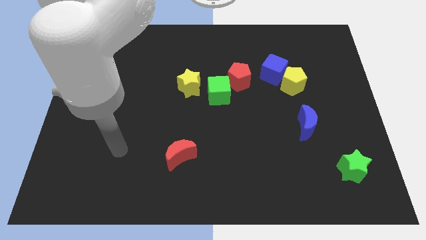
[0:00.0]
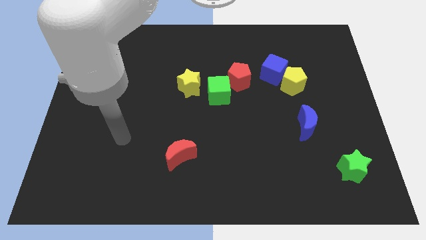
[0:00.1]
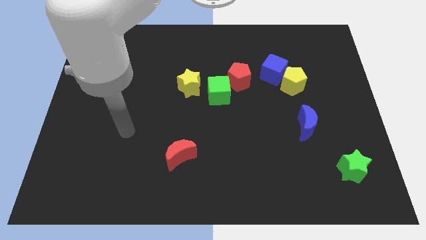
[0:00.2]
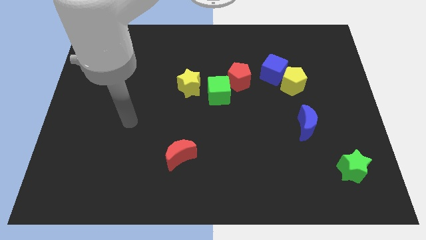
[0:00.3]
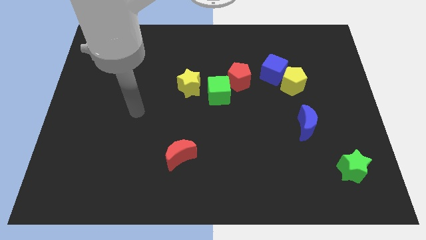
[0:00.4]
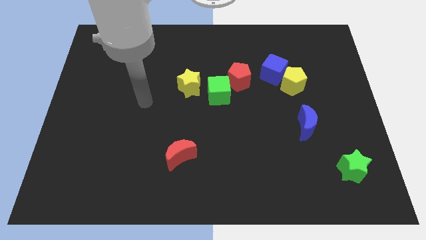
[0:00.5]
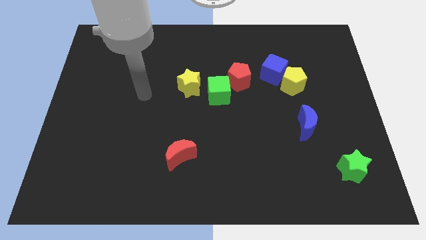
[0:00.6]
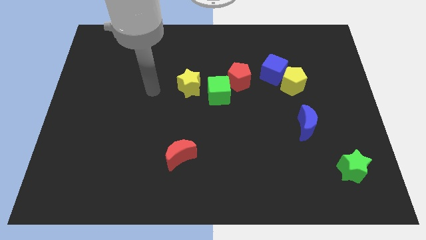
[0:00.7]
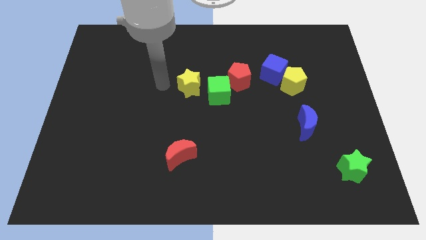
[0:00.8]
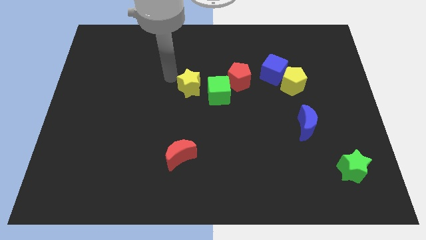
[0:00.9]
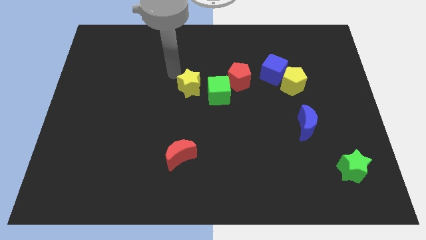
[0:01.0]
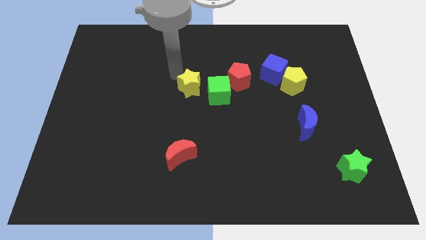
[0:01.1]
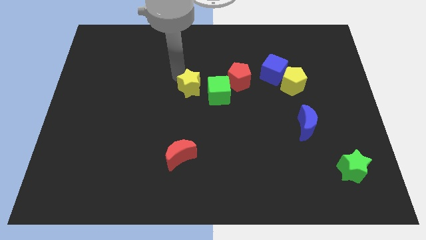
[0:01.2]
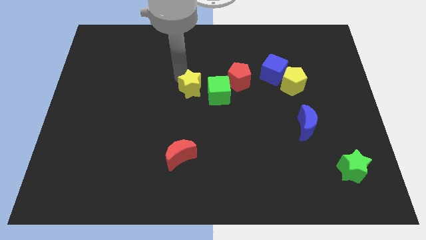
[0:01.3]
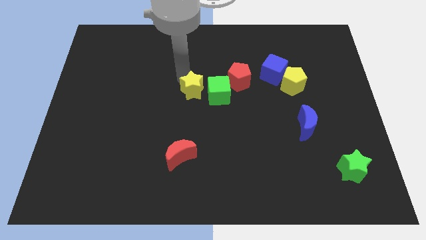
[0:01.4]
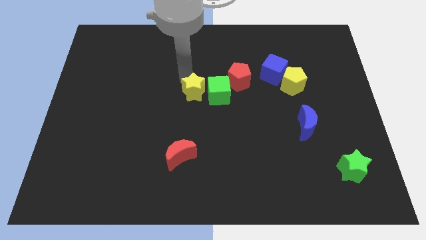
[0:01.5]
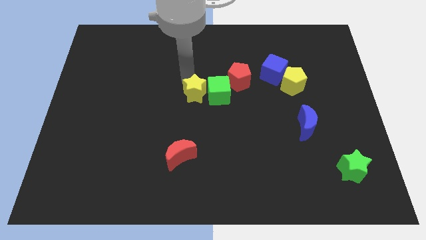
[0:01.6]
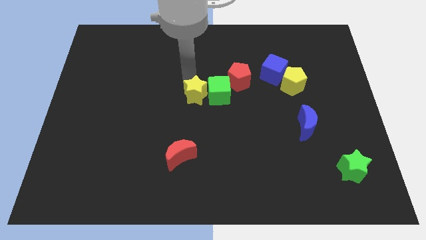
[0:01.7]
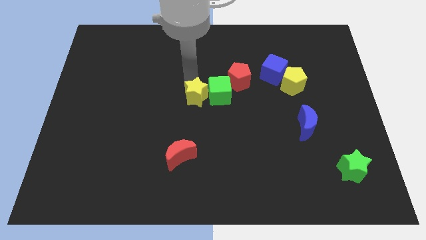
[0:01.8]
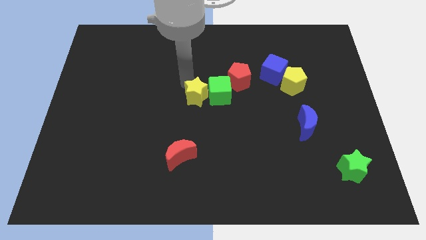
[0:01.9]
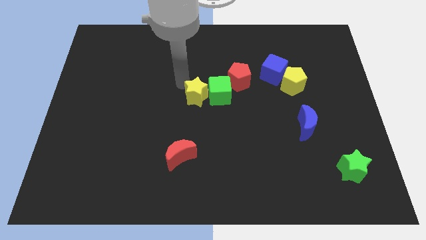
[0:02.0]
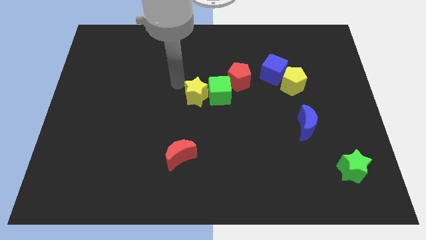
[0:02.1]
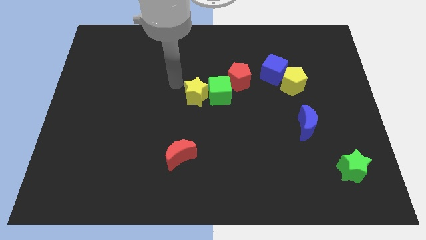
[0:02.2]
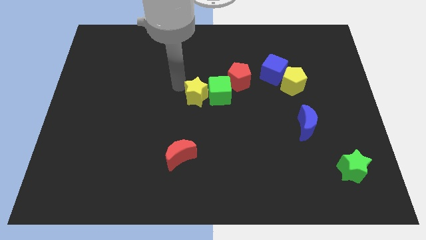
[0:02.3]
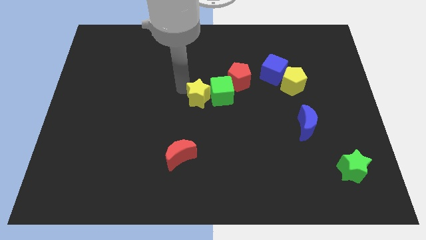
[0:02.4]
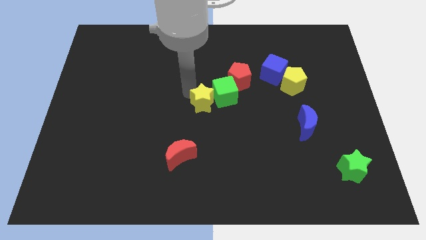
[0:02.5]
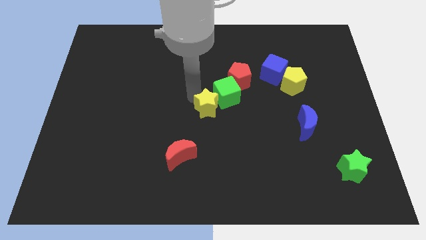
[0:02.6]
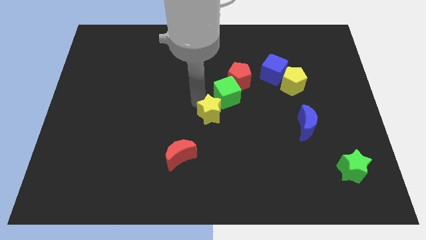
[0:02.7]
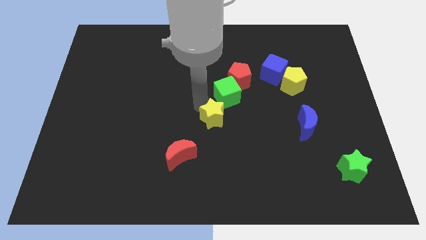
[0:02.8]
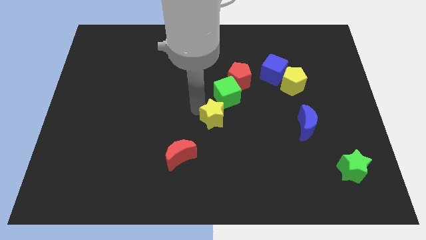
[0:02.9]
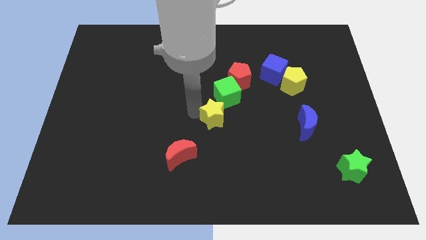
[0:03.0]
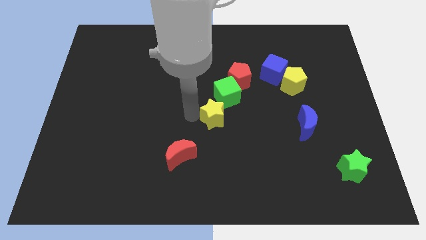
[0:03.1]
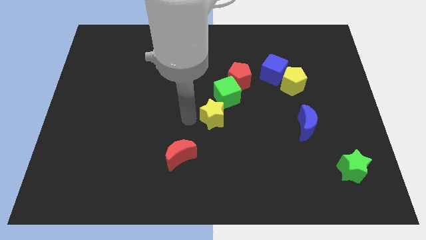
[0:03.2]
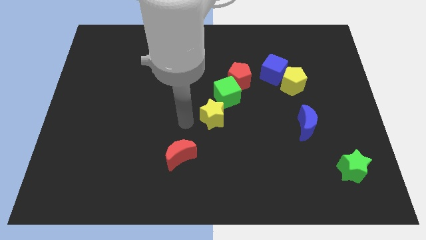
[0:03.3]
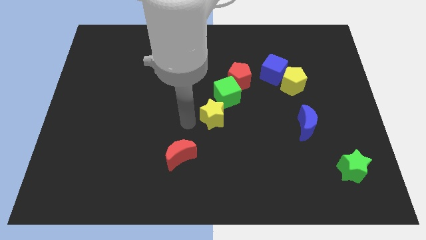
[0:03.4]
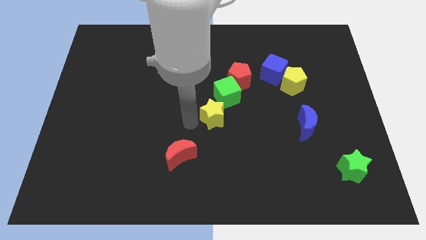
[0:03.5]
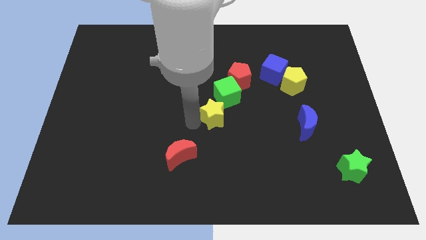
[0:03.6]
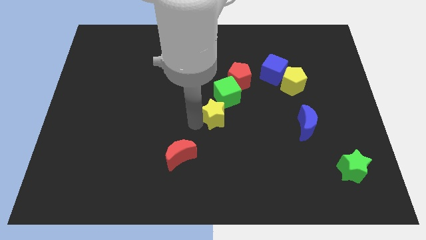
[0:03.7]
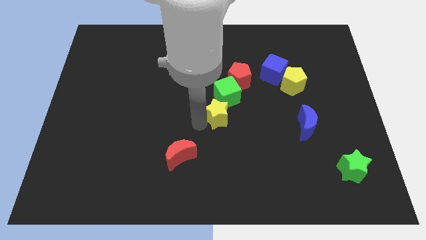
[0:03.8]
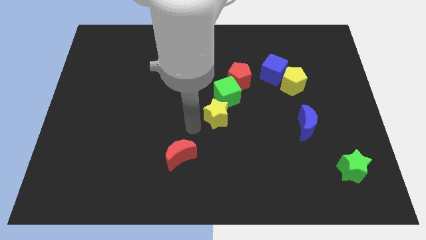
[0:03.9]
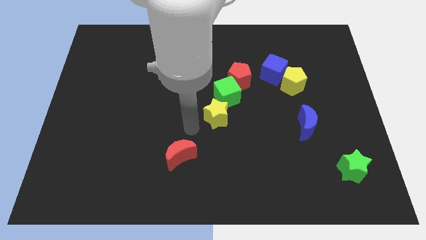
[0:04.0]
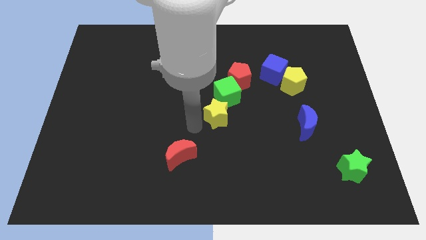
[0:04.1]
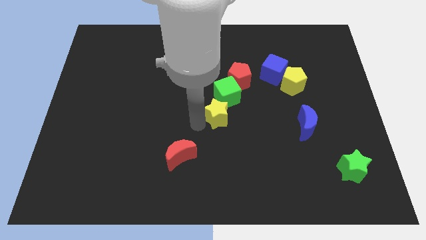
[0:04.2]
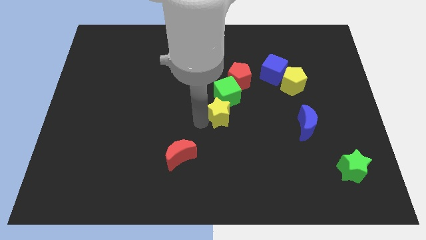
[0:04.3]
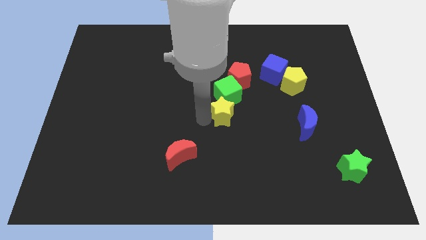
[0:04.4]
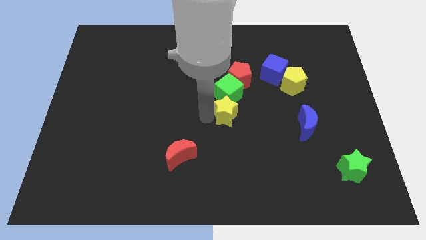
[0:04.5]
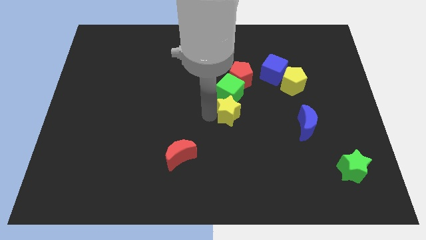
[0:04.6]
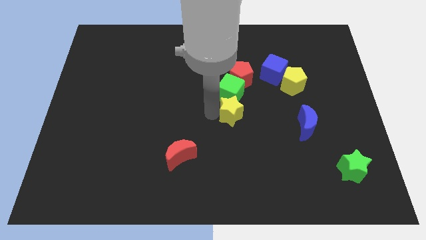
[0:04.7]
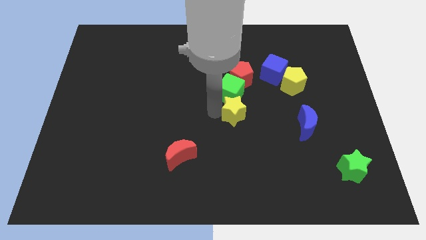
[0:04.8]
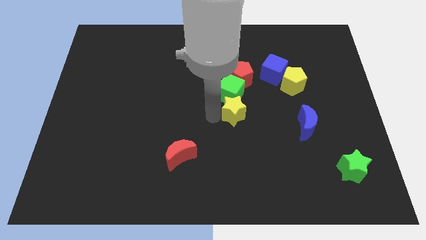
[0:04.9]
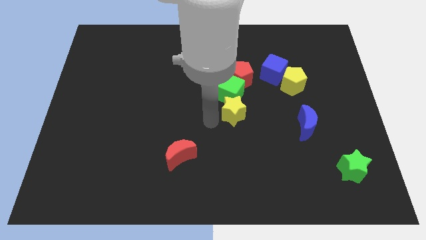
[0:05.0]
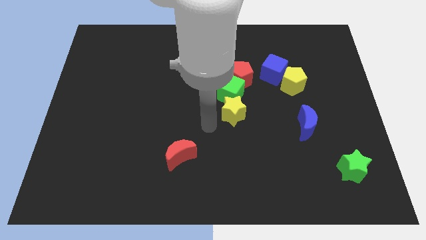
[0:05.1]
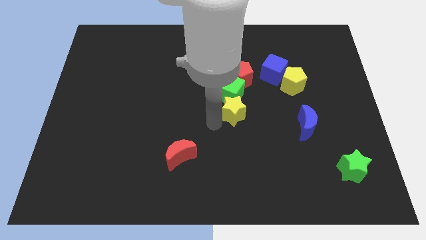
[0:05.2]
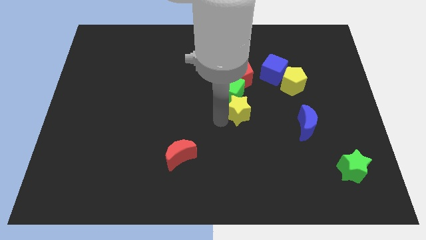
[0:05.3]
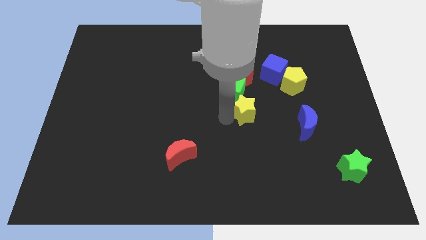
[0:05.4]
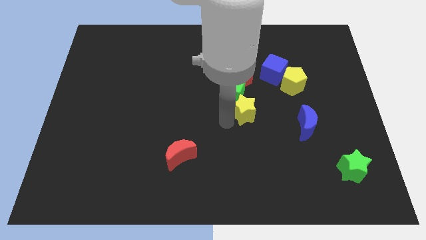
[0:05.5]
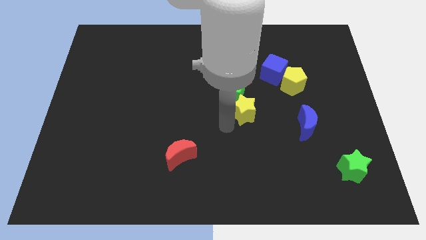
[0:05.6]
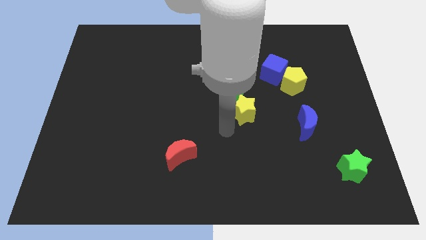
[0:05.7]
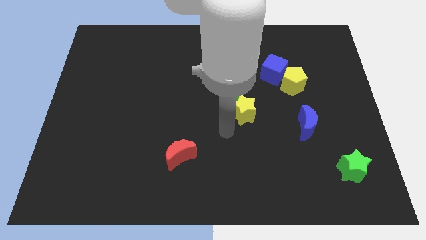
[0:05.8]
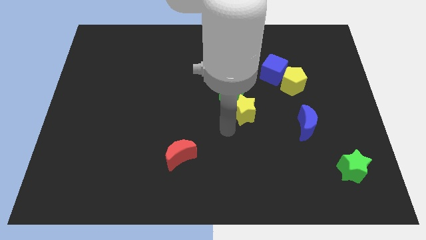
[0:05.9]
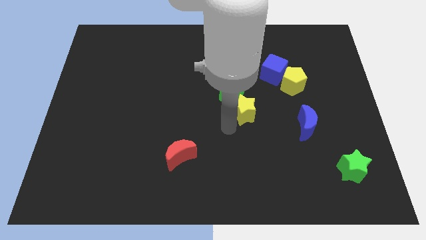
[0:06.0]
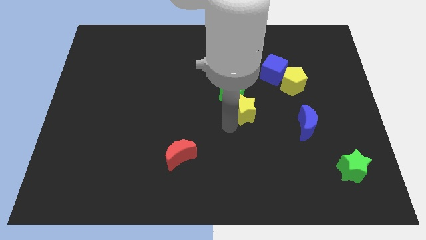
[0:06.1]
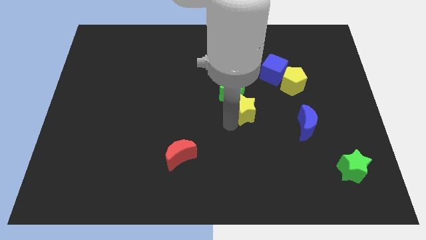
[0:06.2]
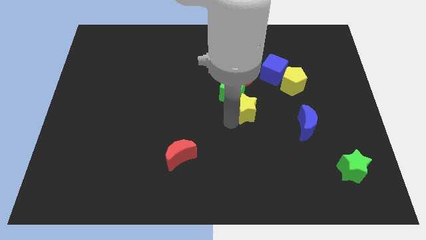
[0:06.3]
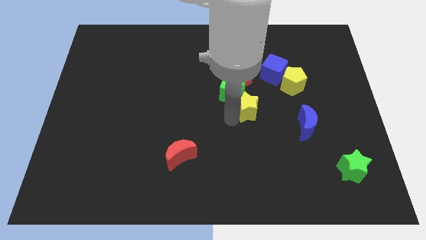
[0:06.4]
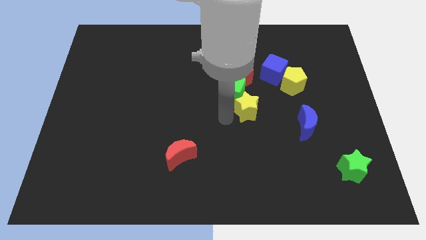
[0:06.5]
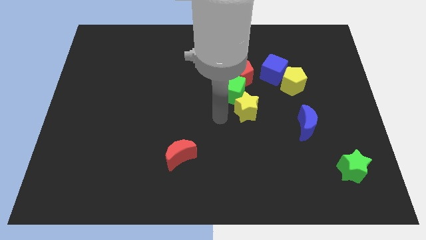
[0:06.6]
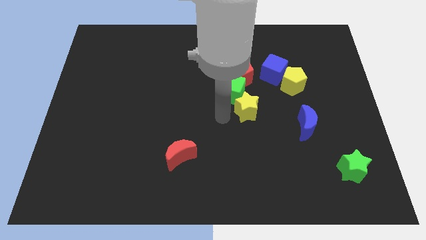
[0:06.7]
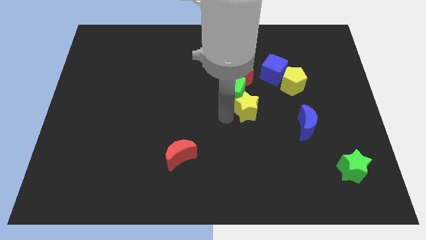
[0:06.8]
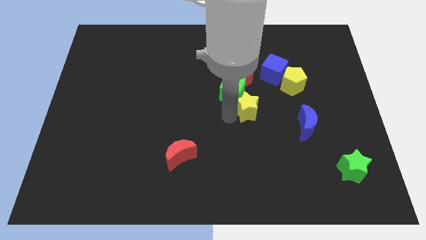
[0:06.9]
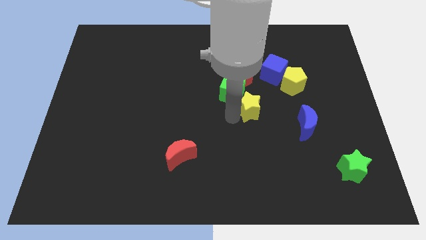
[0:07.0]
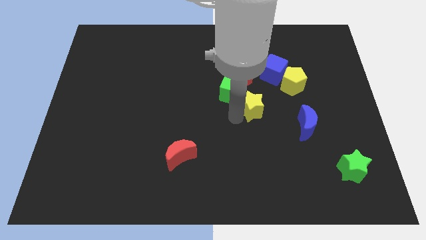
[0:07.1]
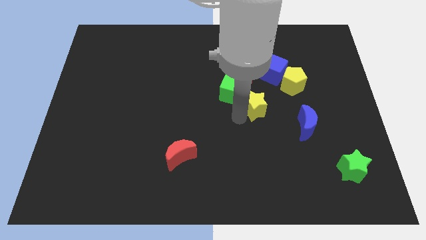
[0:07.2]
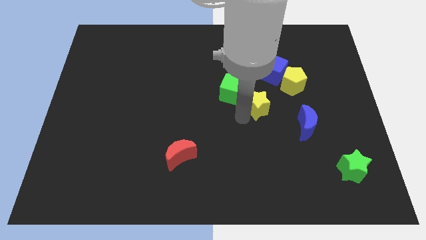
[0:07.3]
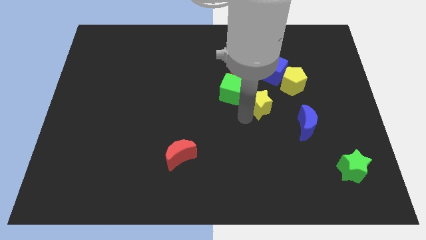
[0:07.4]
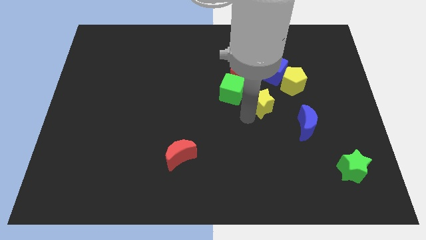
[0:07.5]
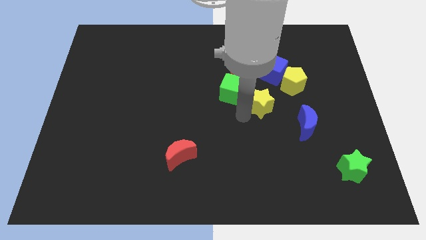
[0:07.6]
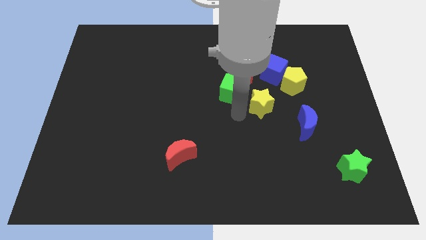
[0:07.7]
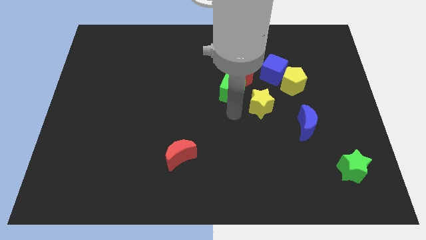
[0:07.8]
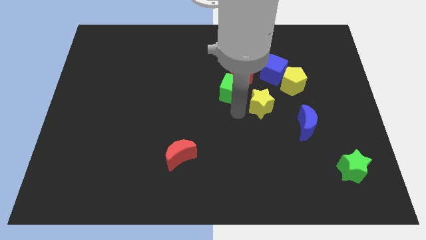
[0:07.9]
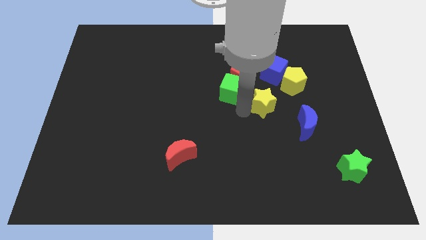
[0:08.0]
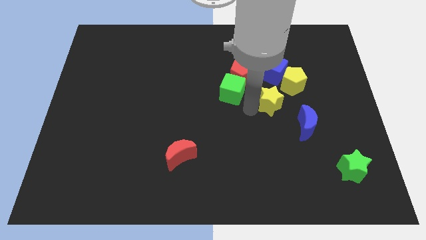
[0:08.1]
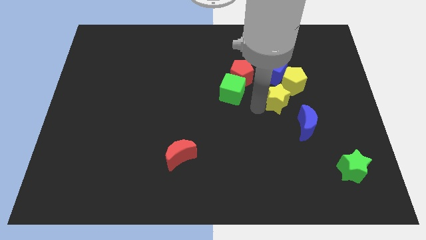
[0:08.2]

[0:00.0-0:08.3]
slide the yellow star right
